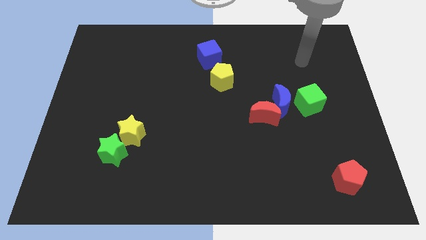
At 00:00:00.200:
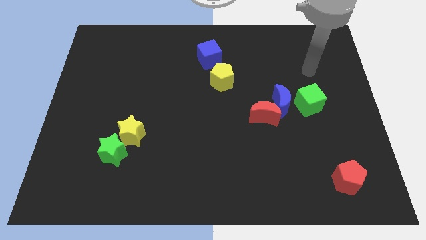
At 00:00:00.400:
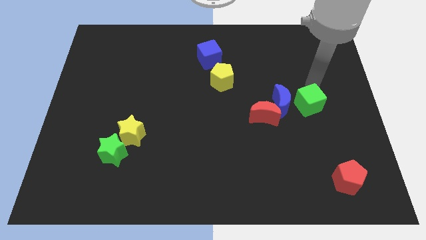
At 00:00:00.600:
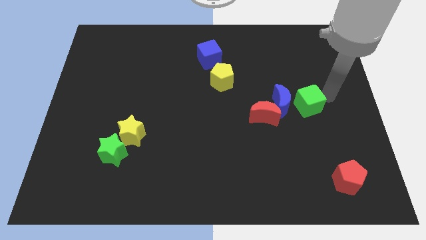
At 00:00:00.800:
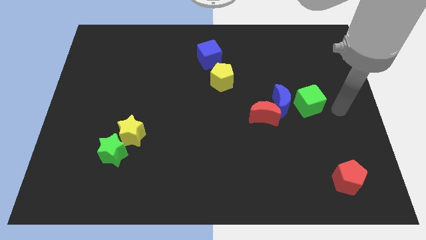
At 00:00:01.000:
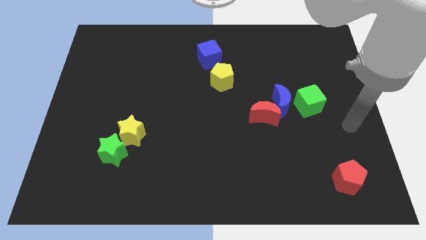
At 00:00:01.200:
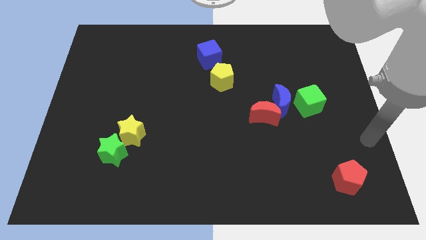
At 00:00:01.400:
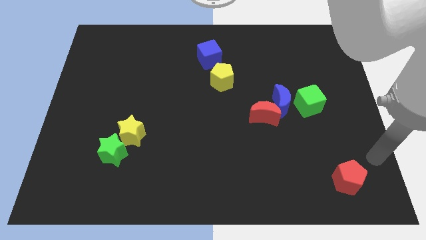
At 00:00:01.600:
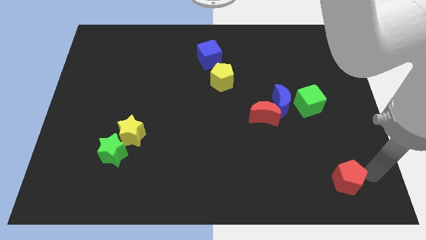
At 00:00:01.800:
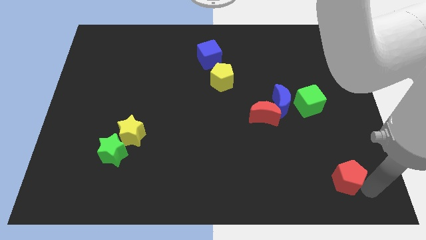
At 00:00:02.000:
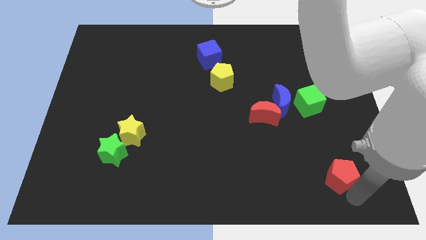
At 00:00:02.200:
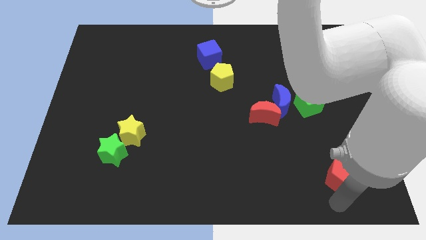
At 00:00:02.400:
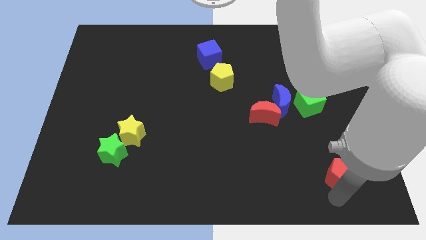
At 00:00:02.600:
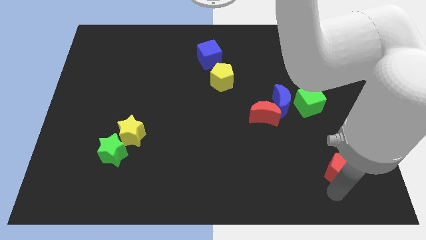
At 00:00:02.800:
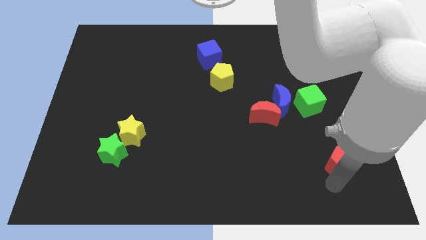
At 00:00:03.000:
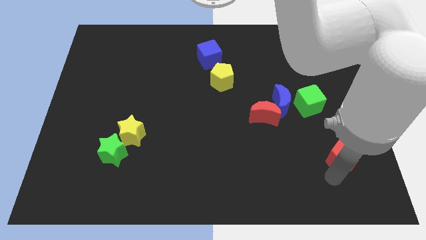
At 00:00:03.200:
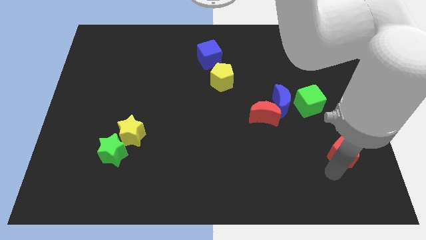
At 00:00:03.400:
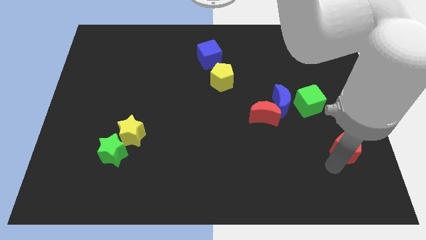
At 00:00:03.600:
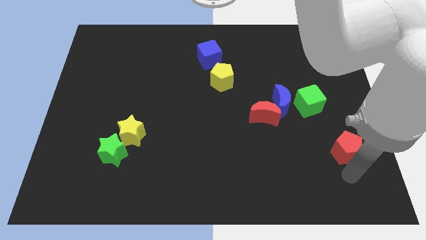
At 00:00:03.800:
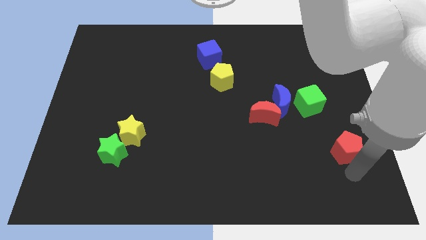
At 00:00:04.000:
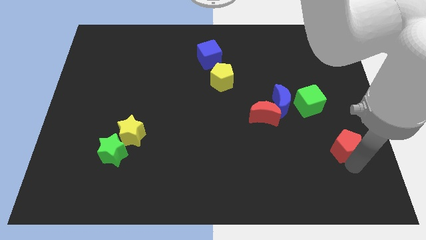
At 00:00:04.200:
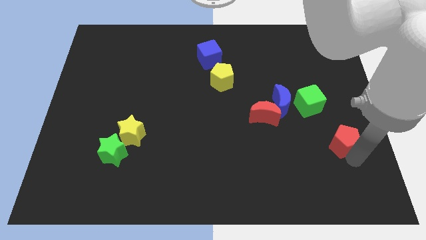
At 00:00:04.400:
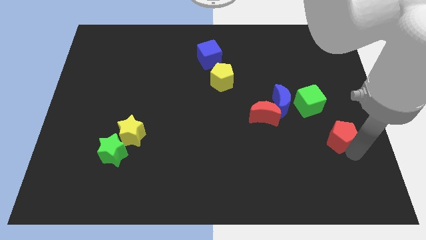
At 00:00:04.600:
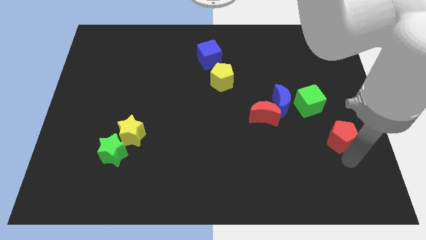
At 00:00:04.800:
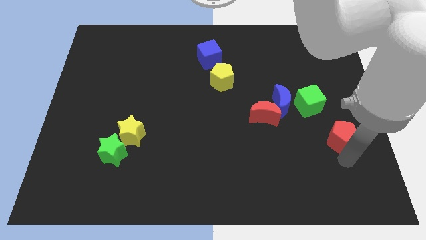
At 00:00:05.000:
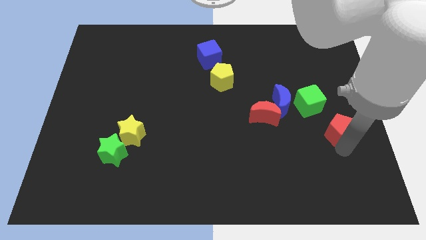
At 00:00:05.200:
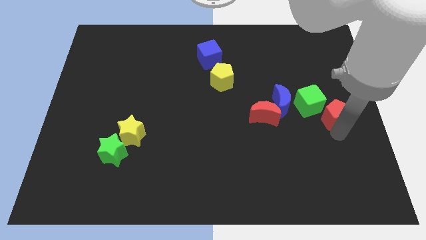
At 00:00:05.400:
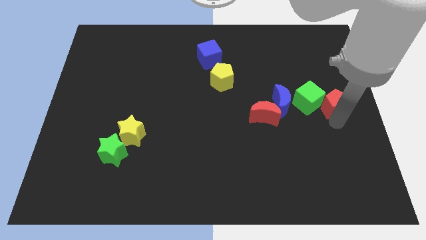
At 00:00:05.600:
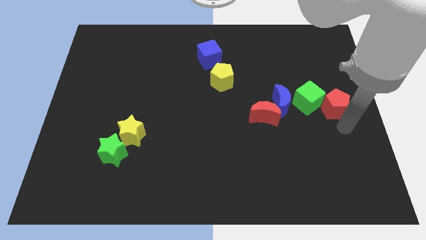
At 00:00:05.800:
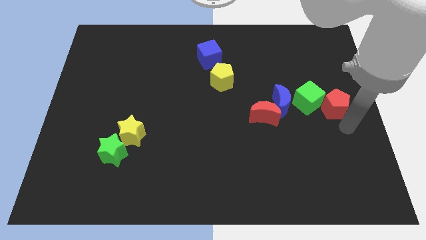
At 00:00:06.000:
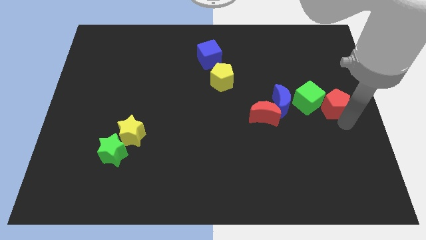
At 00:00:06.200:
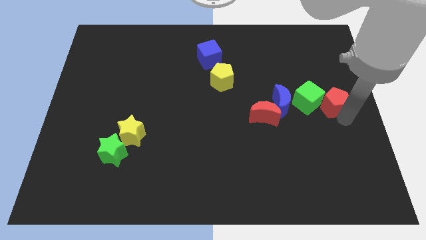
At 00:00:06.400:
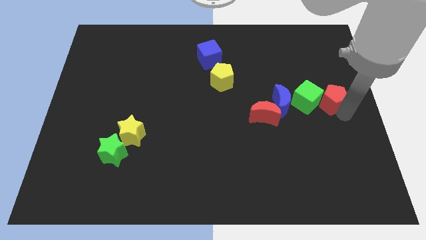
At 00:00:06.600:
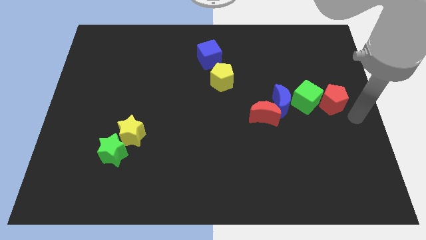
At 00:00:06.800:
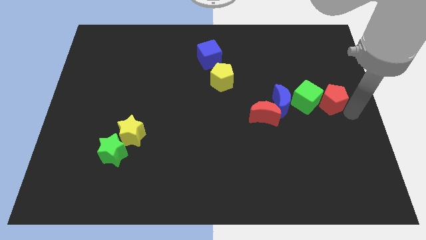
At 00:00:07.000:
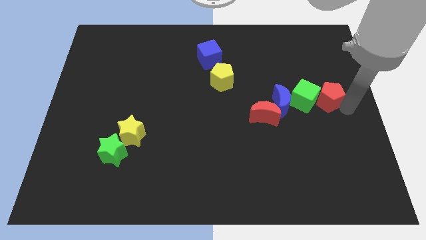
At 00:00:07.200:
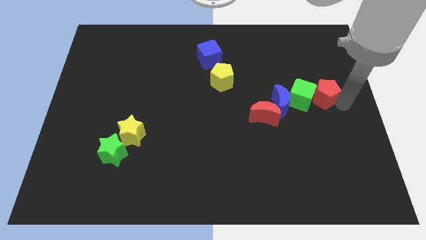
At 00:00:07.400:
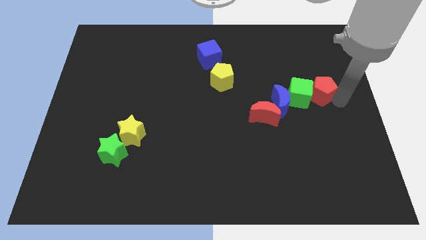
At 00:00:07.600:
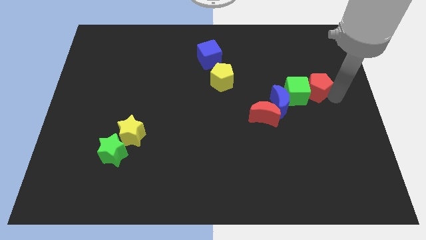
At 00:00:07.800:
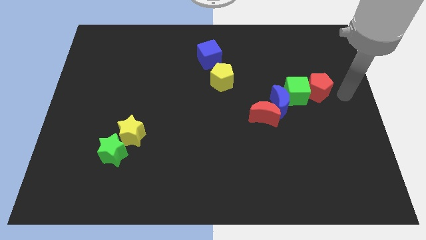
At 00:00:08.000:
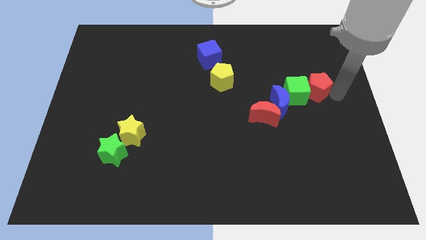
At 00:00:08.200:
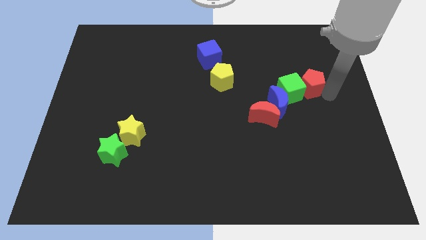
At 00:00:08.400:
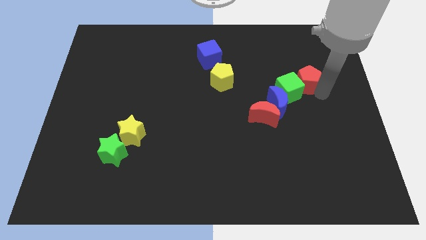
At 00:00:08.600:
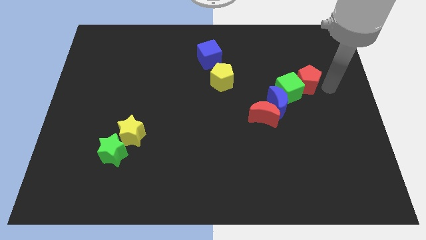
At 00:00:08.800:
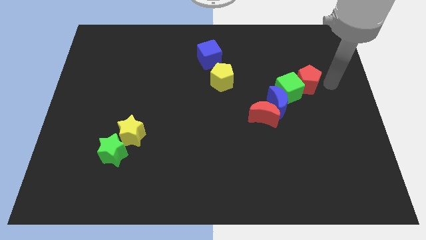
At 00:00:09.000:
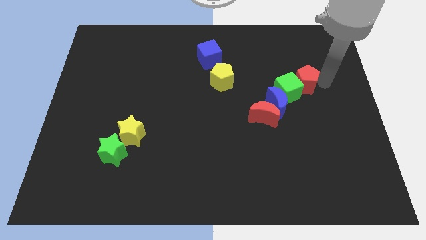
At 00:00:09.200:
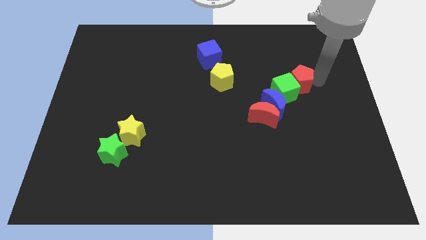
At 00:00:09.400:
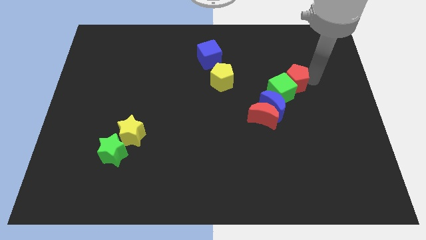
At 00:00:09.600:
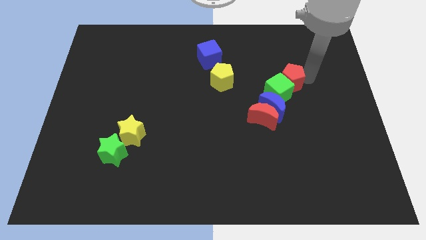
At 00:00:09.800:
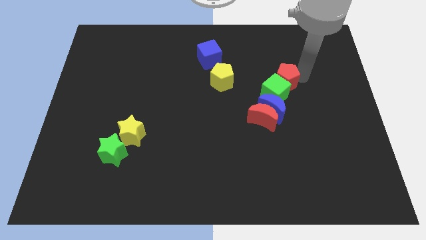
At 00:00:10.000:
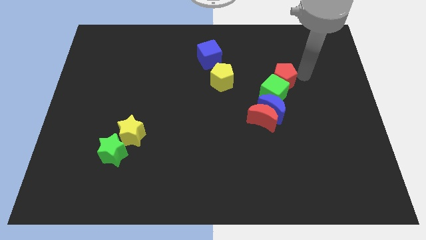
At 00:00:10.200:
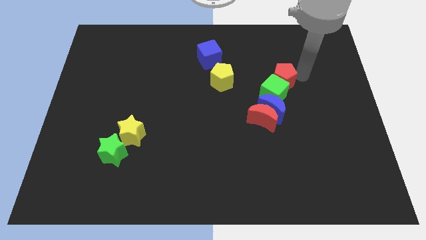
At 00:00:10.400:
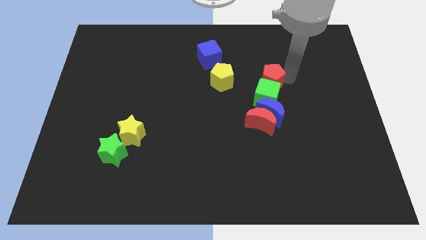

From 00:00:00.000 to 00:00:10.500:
put the red pentagon to the top of the red moon
